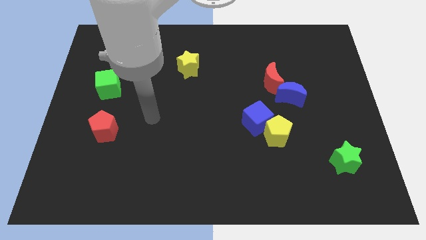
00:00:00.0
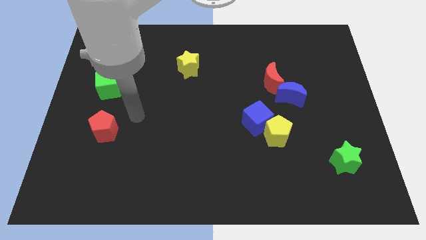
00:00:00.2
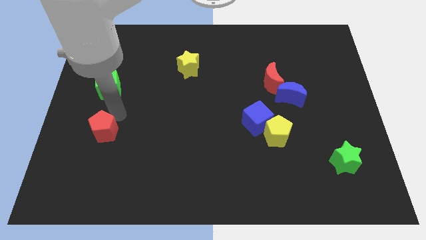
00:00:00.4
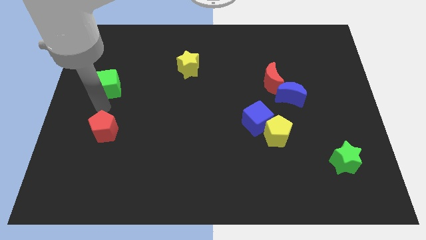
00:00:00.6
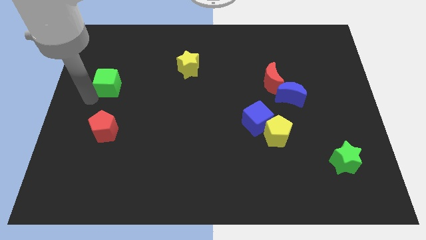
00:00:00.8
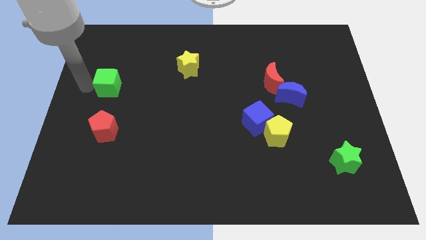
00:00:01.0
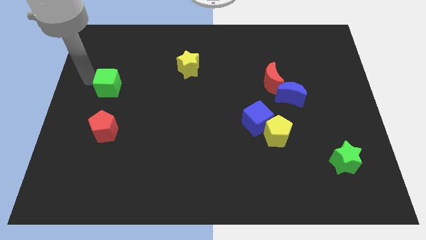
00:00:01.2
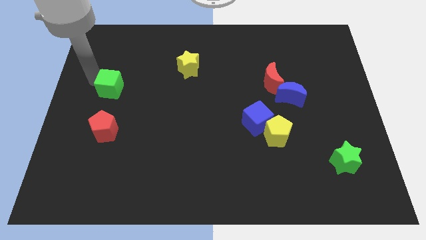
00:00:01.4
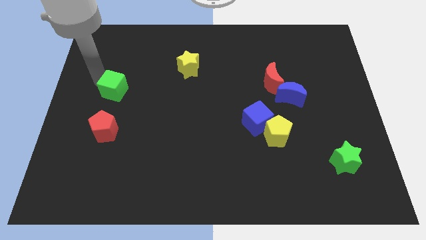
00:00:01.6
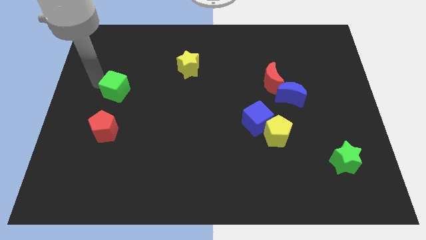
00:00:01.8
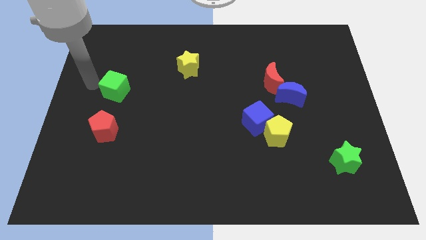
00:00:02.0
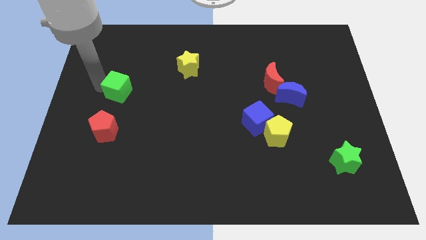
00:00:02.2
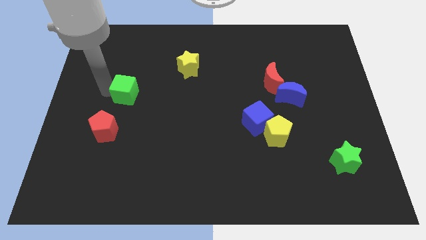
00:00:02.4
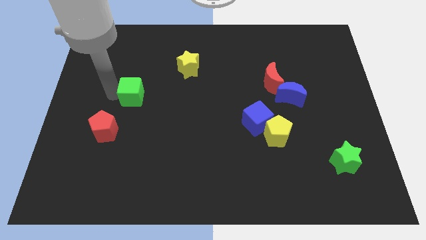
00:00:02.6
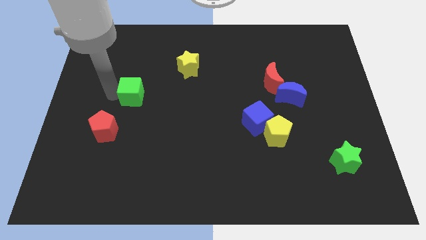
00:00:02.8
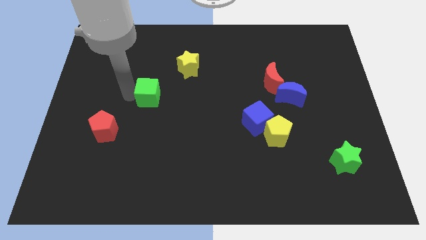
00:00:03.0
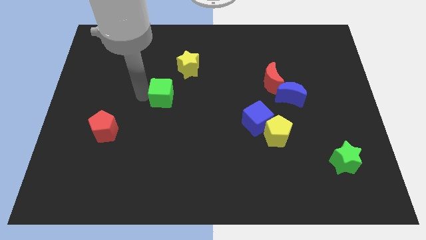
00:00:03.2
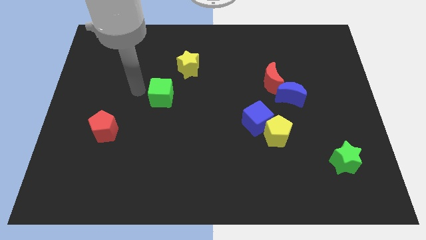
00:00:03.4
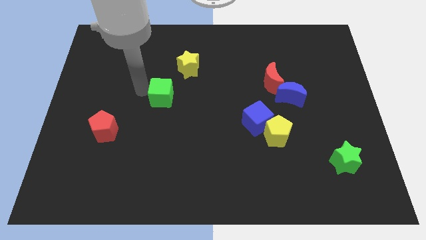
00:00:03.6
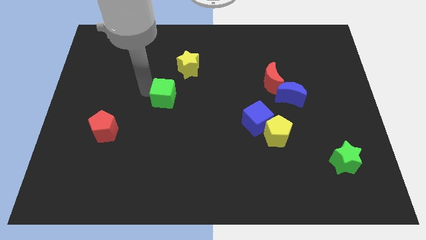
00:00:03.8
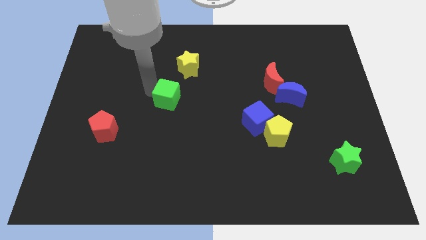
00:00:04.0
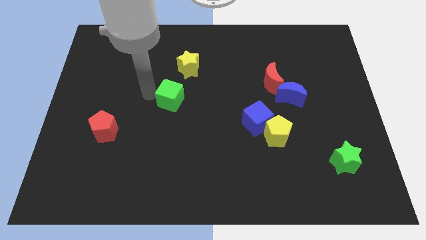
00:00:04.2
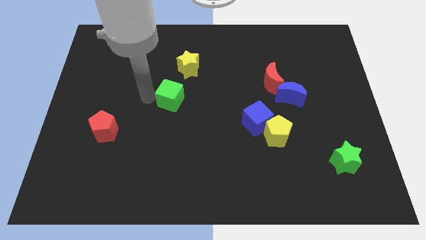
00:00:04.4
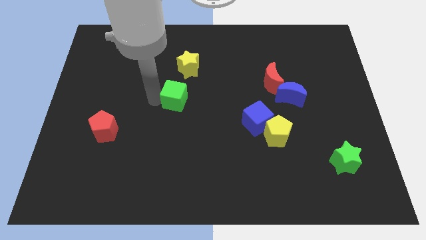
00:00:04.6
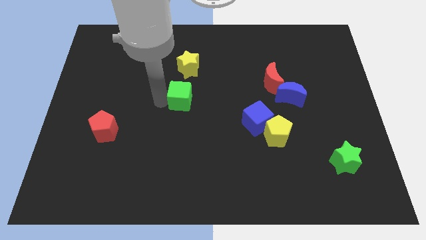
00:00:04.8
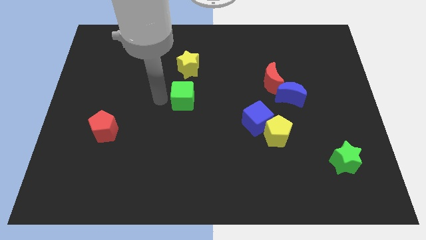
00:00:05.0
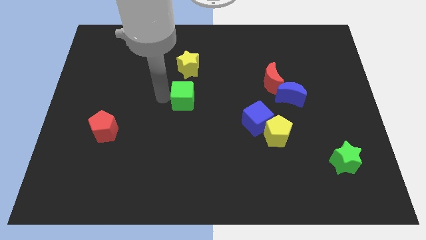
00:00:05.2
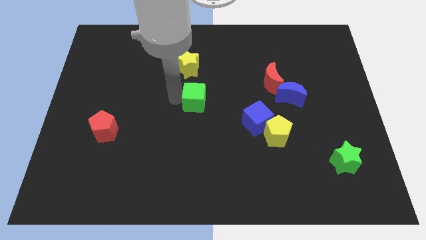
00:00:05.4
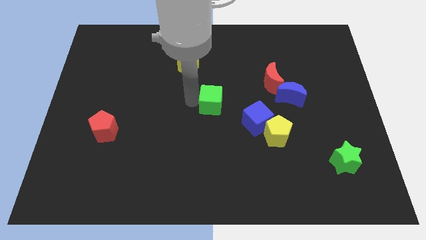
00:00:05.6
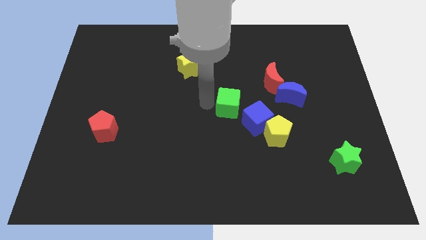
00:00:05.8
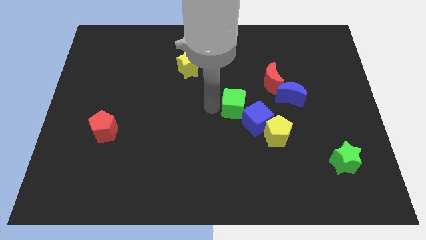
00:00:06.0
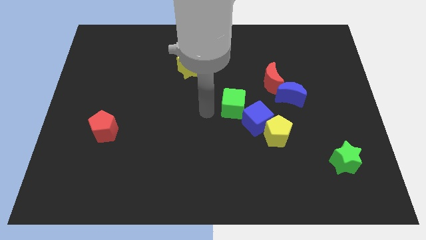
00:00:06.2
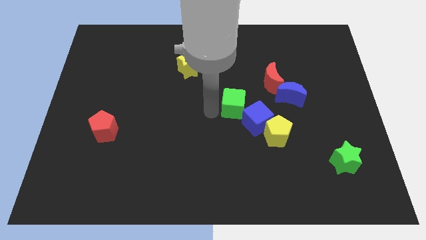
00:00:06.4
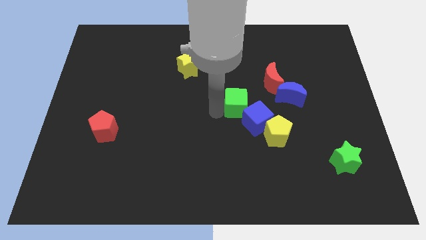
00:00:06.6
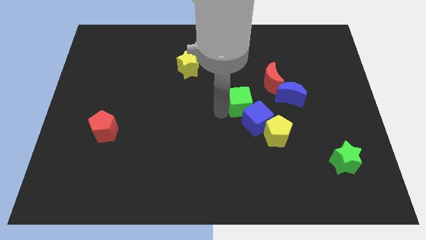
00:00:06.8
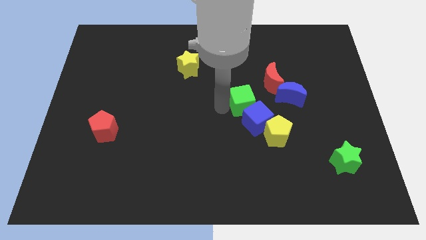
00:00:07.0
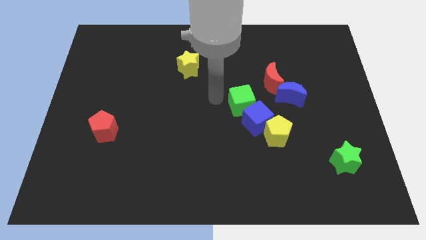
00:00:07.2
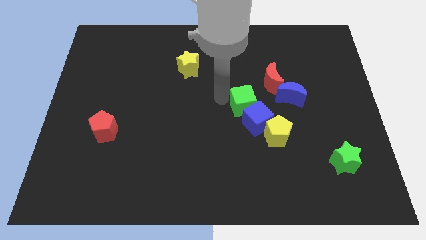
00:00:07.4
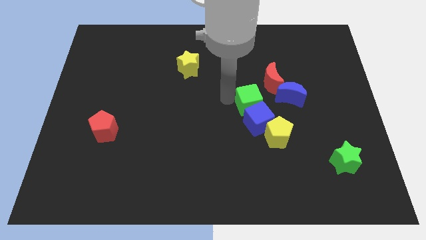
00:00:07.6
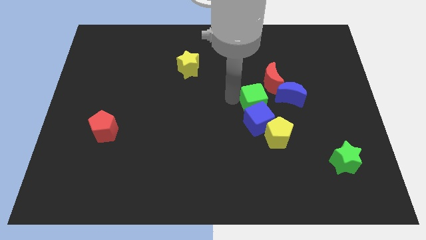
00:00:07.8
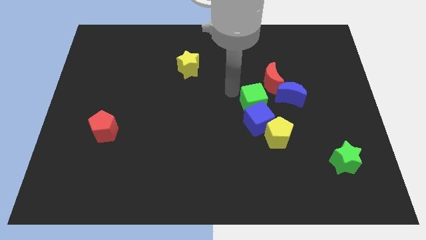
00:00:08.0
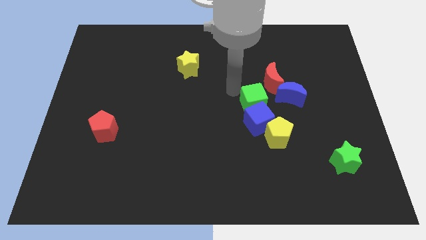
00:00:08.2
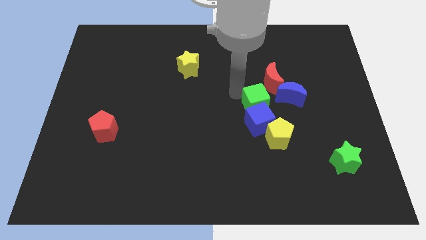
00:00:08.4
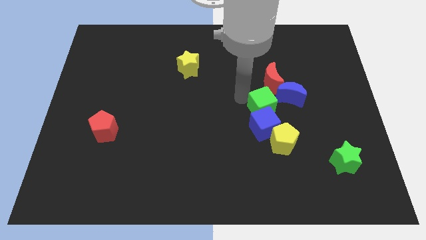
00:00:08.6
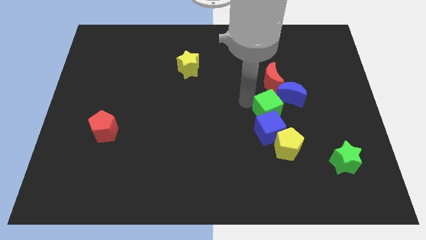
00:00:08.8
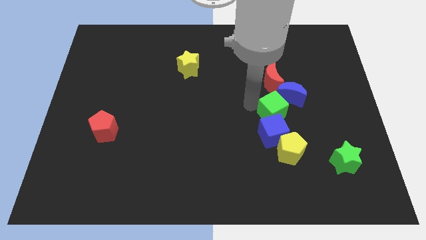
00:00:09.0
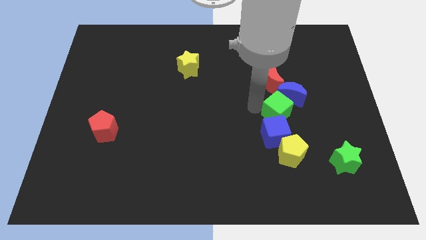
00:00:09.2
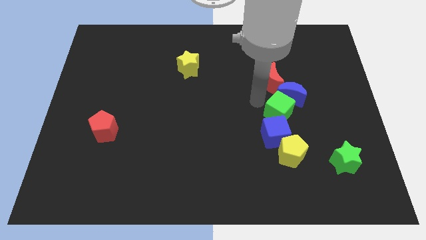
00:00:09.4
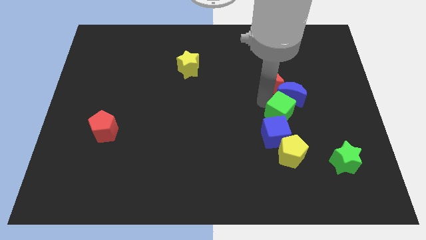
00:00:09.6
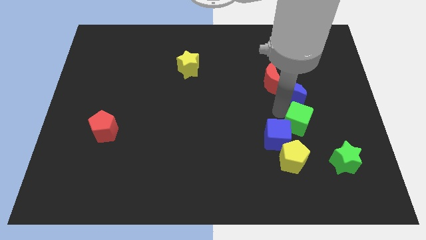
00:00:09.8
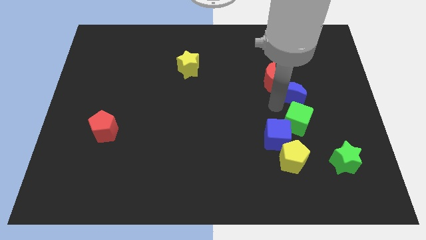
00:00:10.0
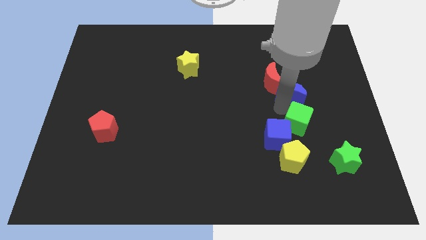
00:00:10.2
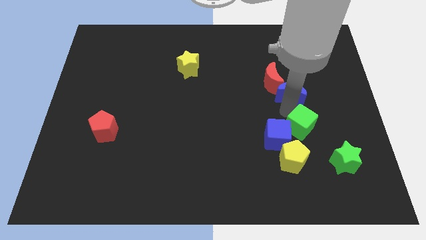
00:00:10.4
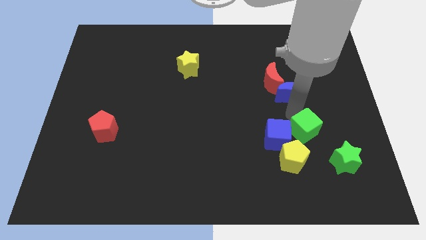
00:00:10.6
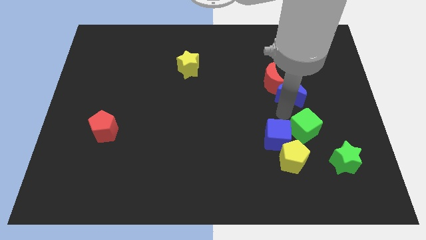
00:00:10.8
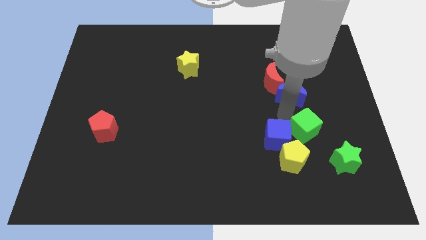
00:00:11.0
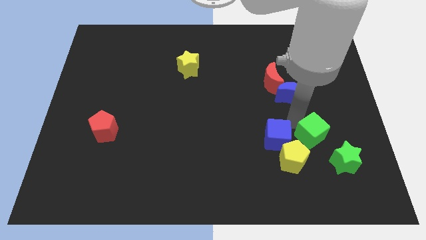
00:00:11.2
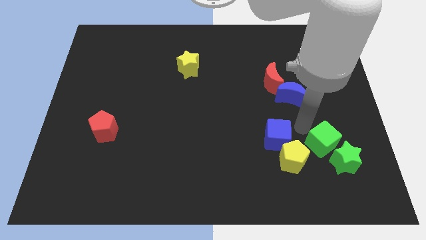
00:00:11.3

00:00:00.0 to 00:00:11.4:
put the green cube close to the green star

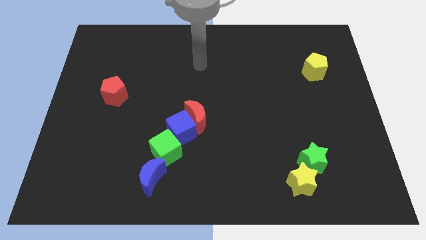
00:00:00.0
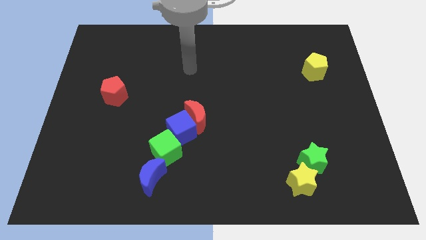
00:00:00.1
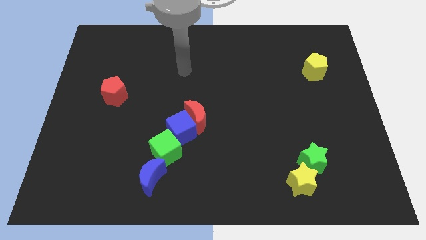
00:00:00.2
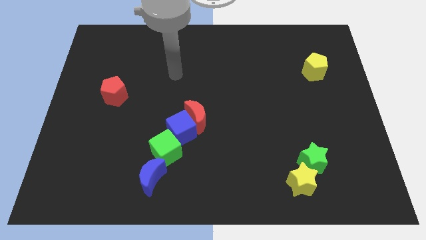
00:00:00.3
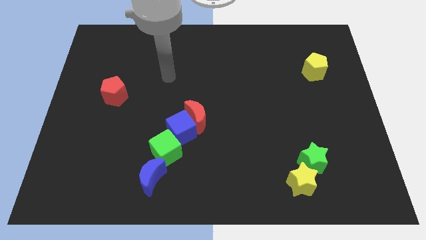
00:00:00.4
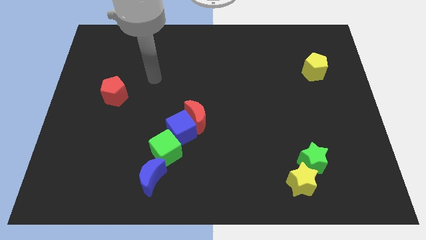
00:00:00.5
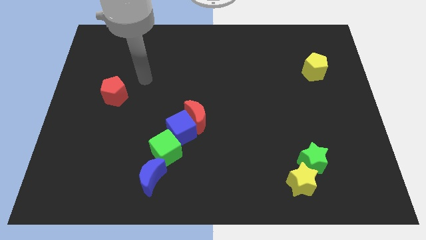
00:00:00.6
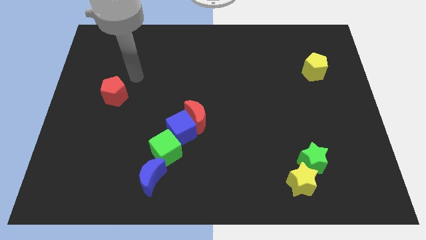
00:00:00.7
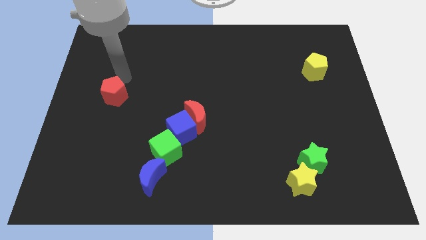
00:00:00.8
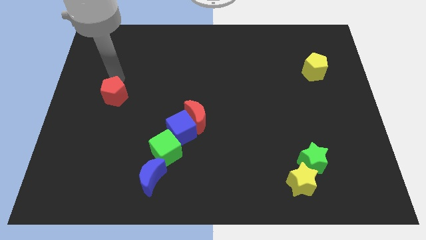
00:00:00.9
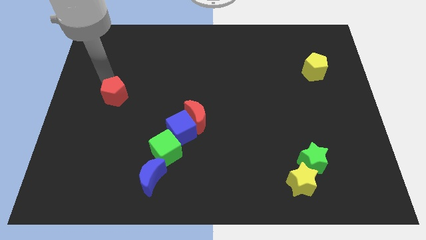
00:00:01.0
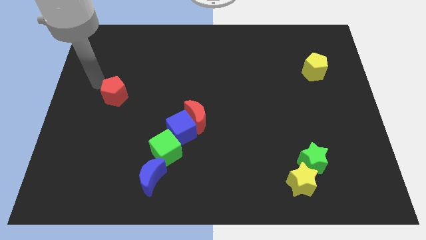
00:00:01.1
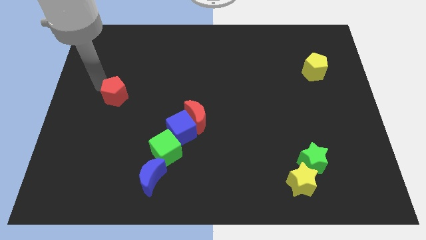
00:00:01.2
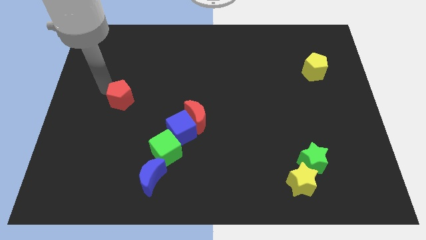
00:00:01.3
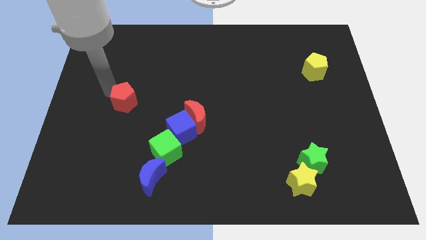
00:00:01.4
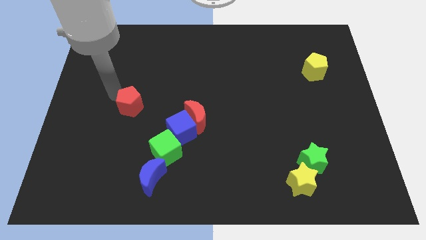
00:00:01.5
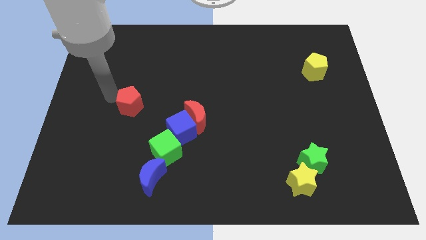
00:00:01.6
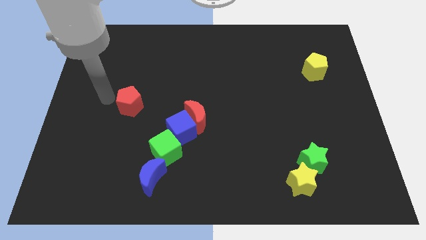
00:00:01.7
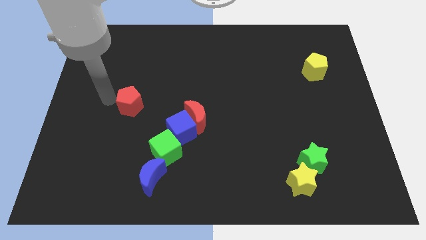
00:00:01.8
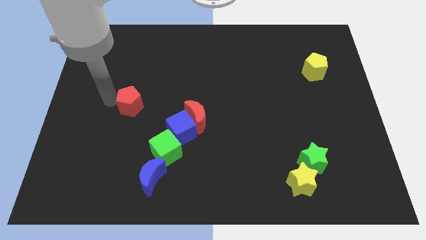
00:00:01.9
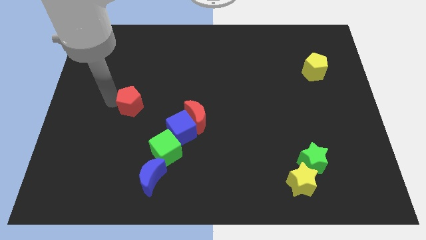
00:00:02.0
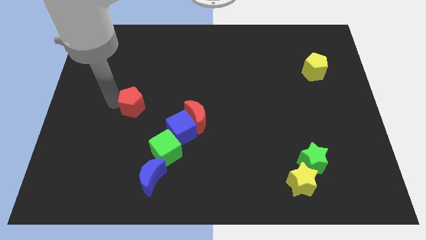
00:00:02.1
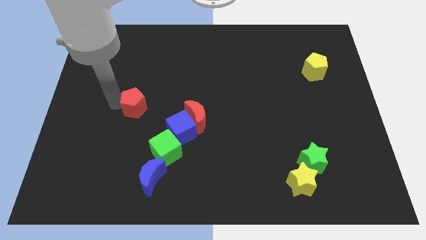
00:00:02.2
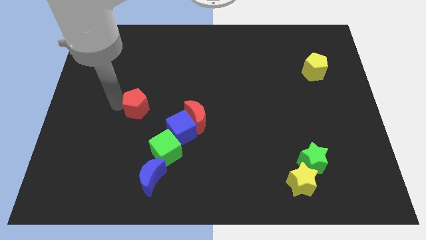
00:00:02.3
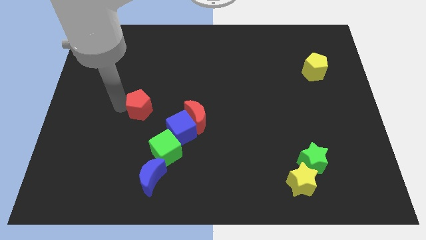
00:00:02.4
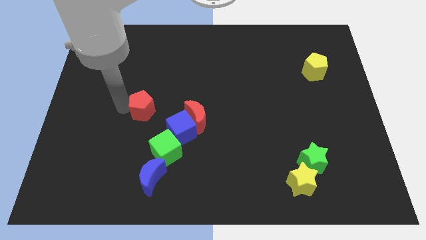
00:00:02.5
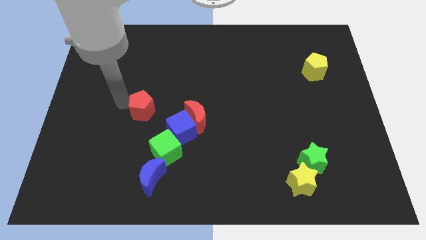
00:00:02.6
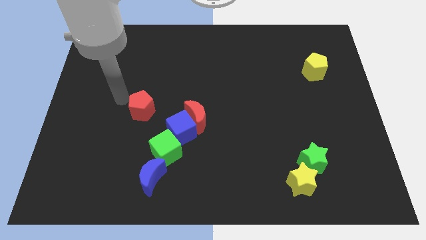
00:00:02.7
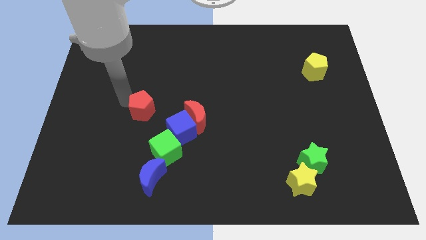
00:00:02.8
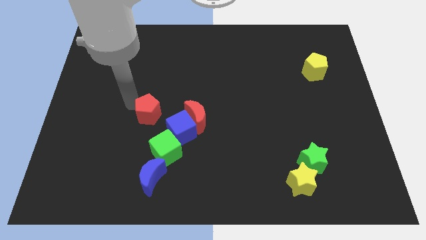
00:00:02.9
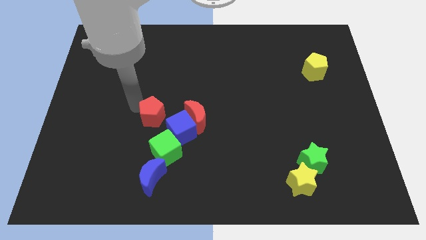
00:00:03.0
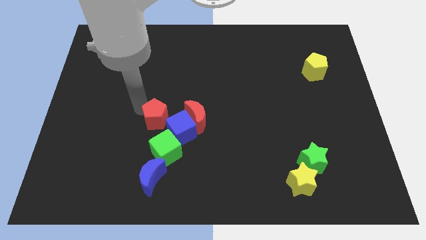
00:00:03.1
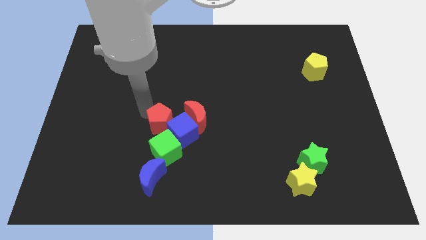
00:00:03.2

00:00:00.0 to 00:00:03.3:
put the red pentagon next to the blue cube
